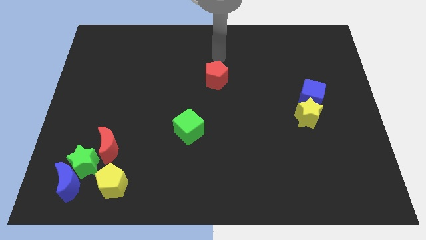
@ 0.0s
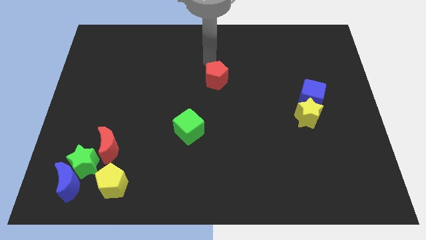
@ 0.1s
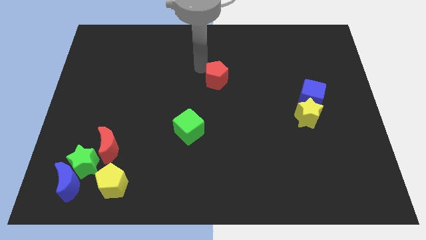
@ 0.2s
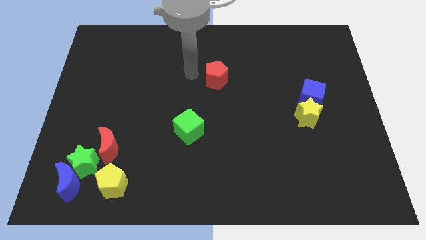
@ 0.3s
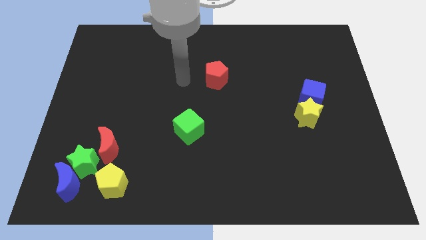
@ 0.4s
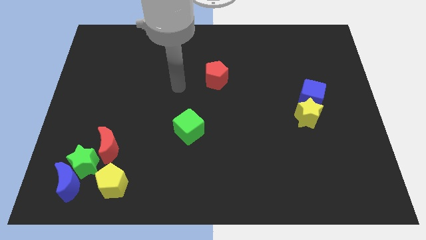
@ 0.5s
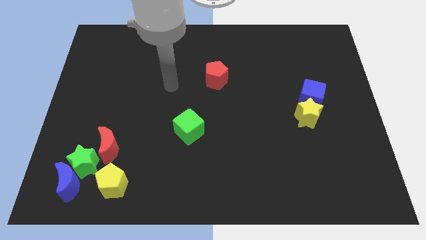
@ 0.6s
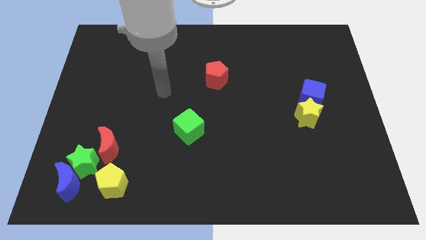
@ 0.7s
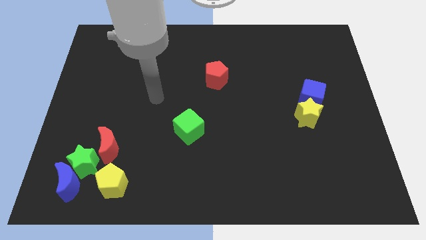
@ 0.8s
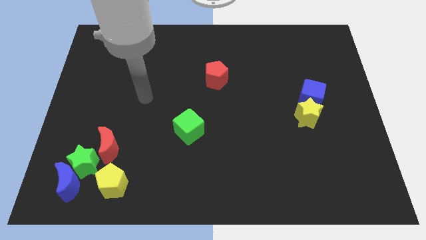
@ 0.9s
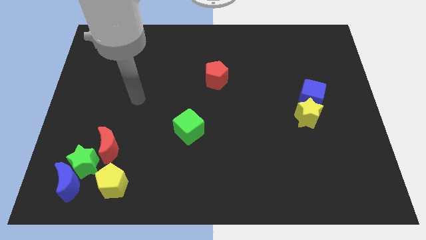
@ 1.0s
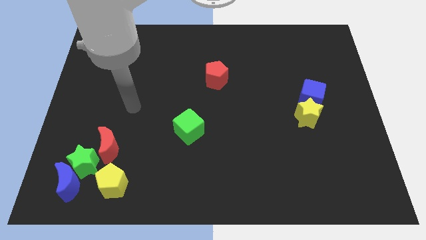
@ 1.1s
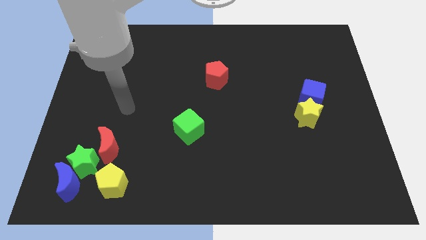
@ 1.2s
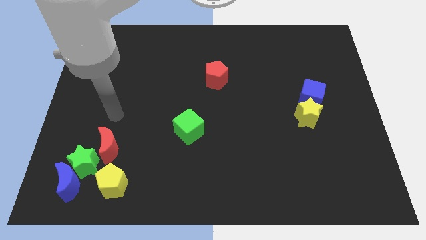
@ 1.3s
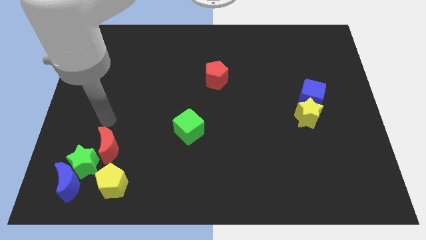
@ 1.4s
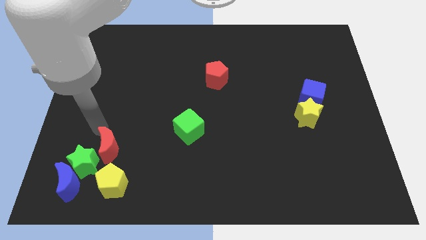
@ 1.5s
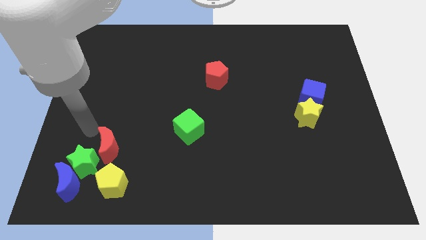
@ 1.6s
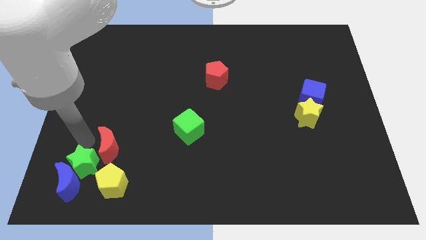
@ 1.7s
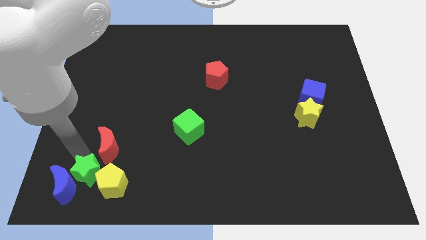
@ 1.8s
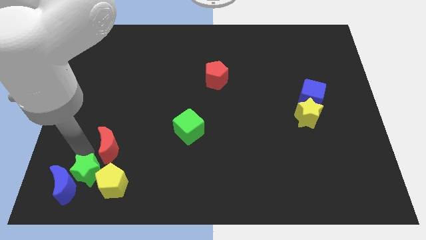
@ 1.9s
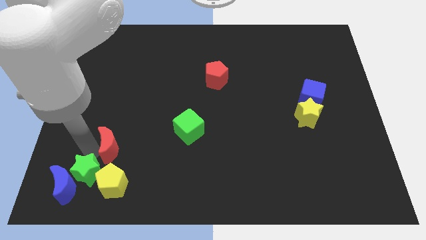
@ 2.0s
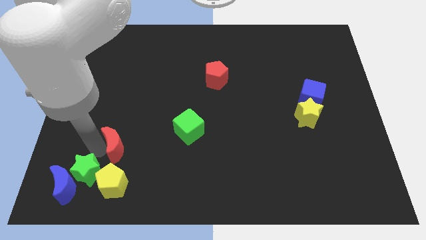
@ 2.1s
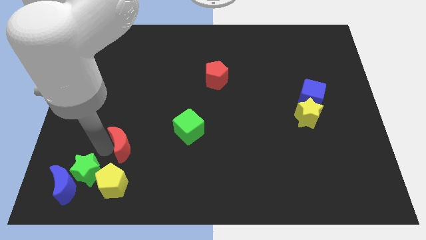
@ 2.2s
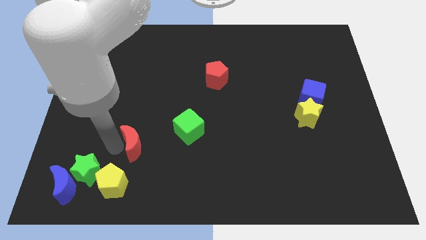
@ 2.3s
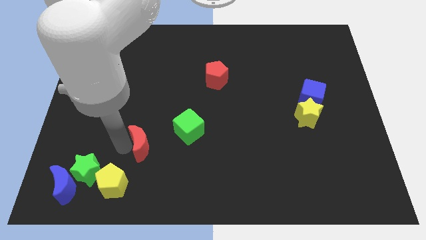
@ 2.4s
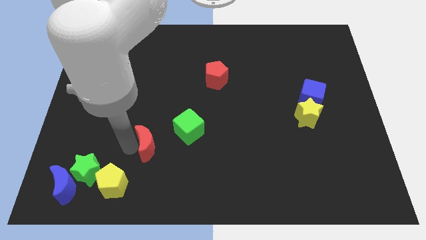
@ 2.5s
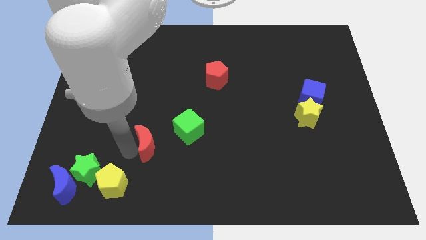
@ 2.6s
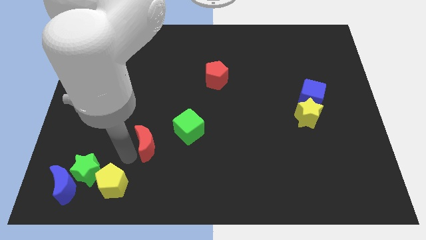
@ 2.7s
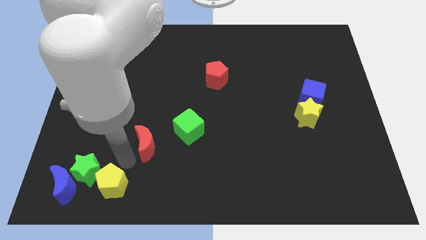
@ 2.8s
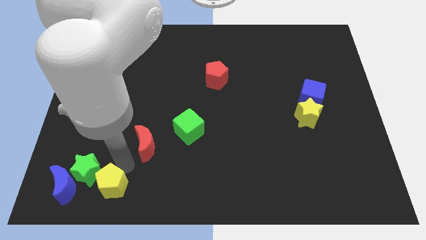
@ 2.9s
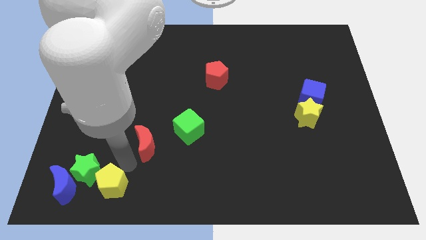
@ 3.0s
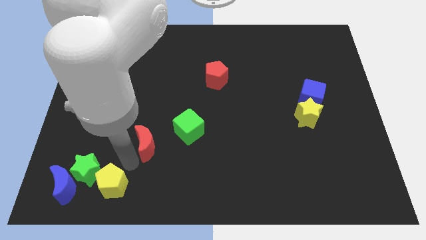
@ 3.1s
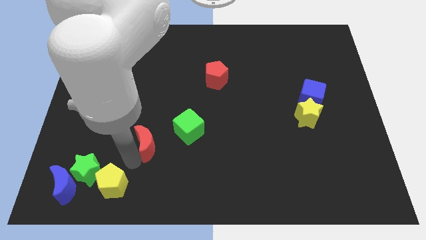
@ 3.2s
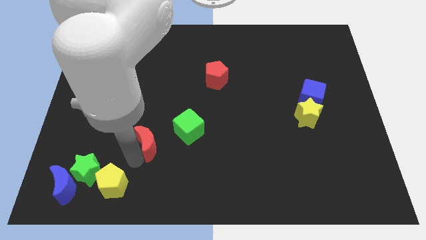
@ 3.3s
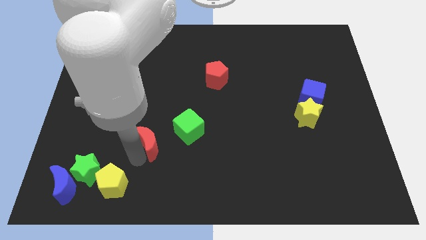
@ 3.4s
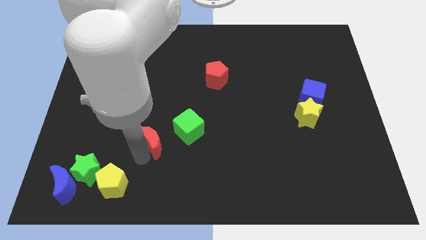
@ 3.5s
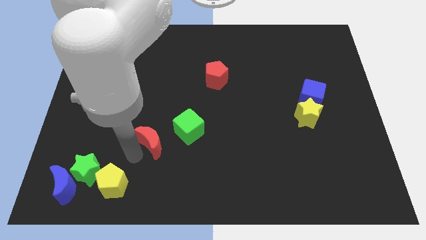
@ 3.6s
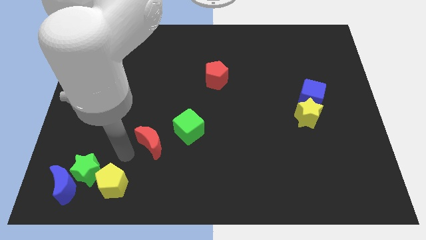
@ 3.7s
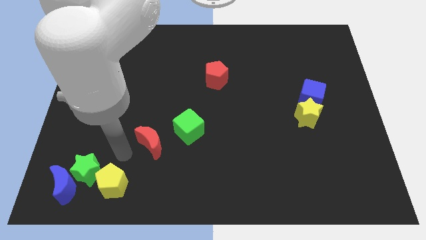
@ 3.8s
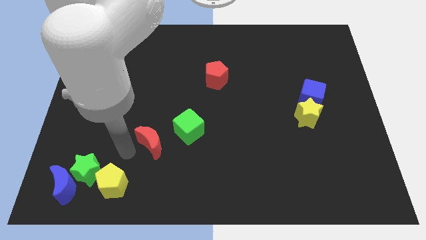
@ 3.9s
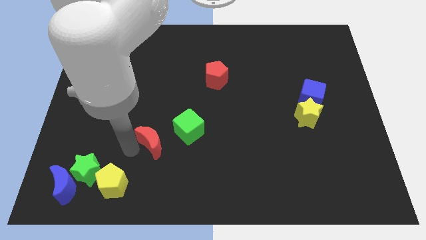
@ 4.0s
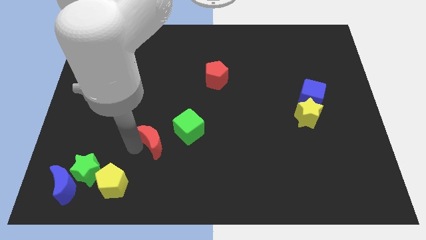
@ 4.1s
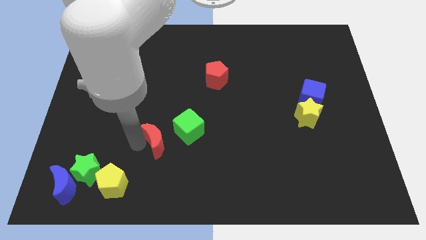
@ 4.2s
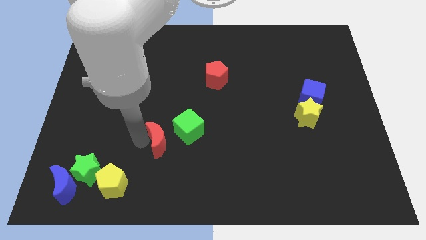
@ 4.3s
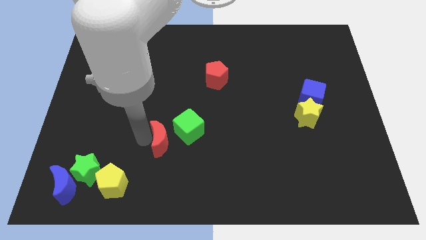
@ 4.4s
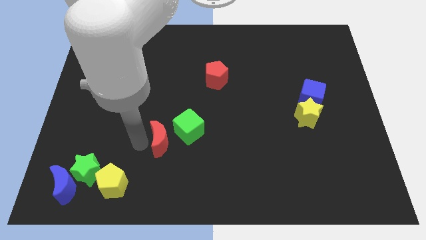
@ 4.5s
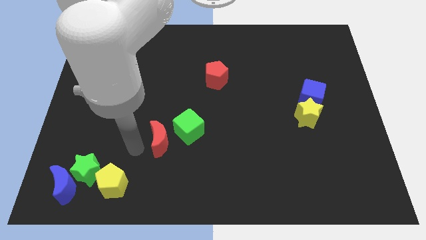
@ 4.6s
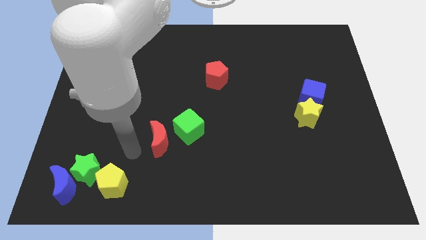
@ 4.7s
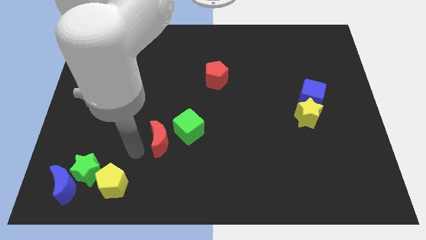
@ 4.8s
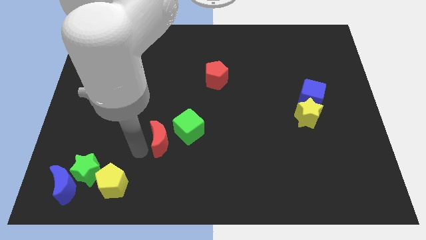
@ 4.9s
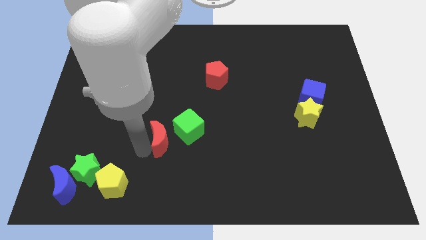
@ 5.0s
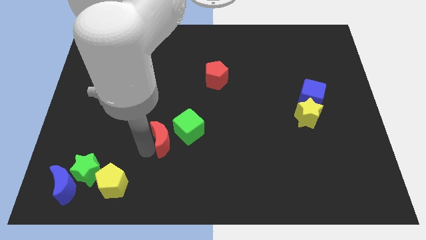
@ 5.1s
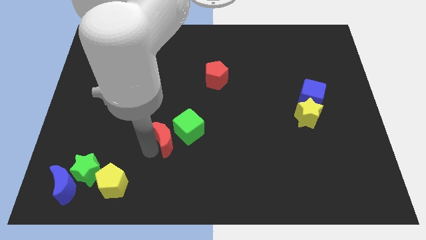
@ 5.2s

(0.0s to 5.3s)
move the red moon to the green cube

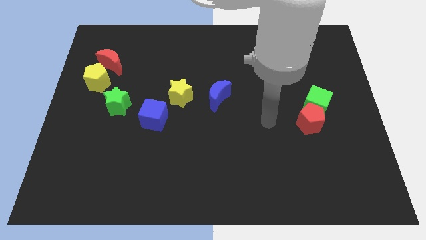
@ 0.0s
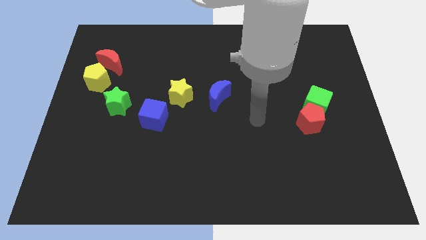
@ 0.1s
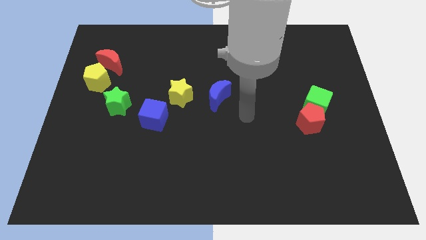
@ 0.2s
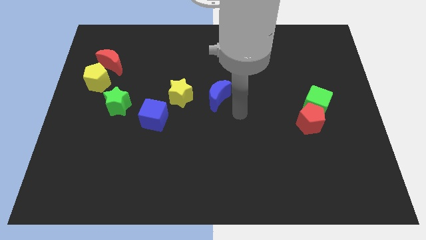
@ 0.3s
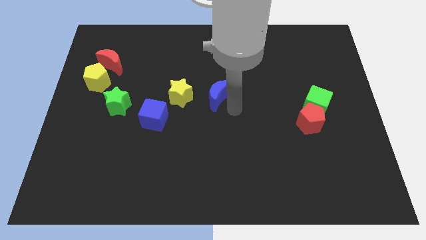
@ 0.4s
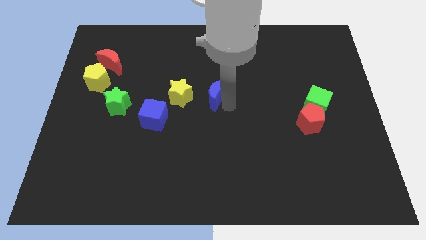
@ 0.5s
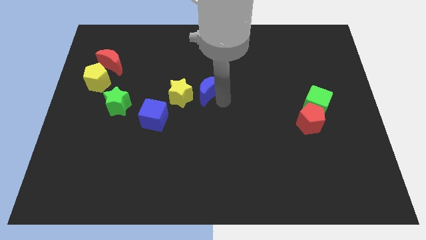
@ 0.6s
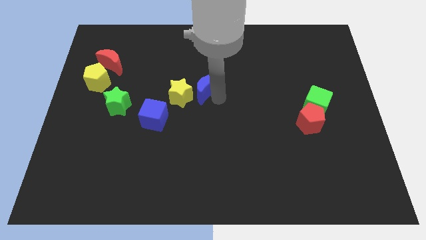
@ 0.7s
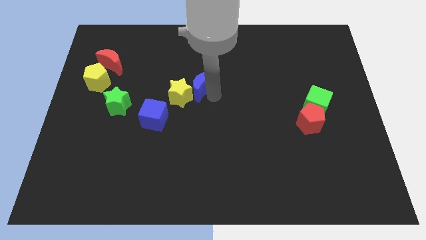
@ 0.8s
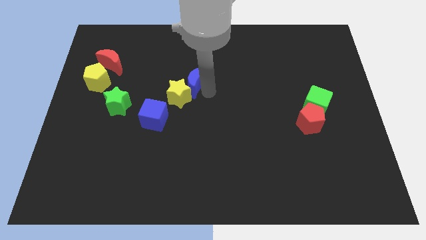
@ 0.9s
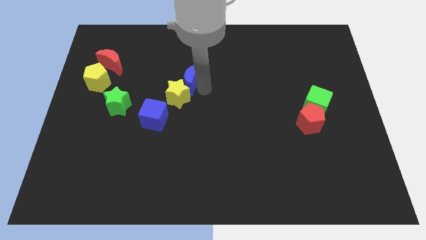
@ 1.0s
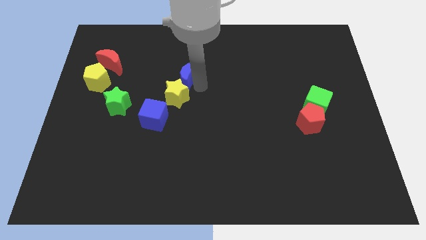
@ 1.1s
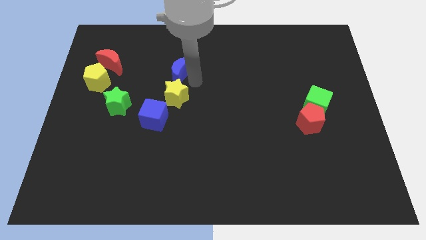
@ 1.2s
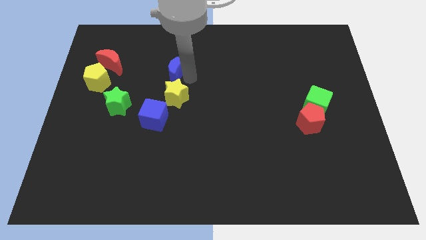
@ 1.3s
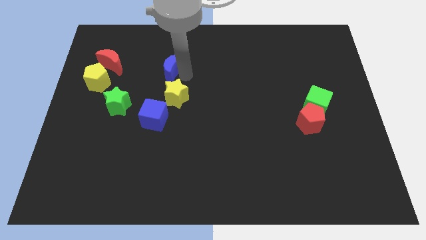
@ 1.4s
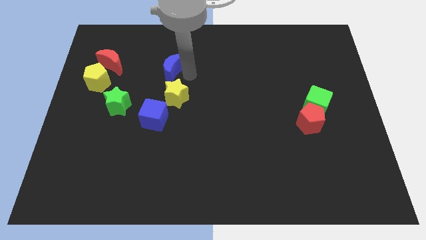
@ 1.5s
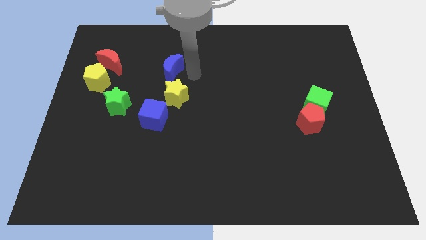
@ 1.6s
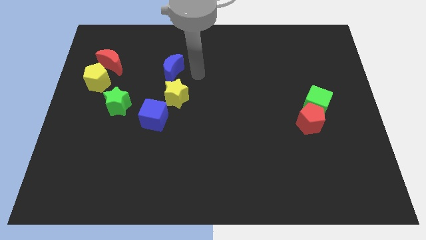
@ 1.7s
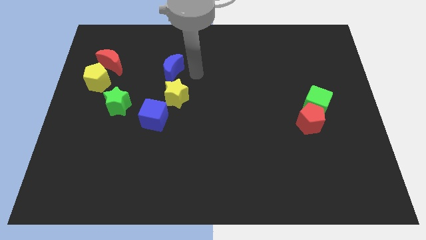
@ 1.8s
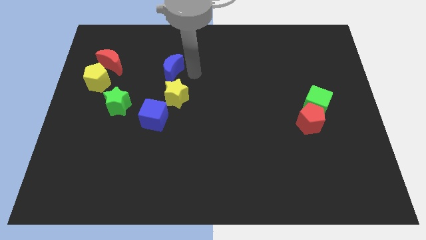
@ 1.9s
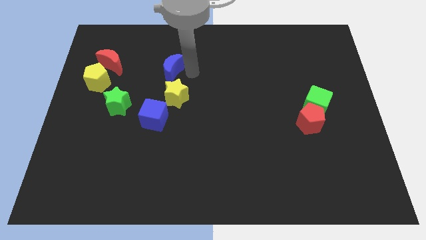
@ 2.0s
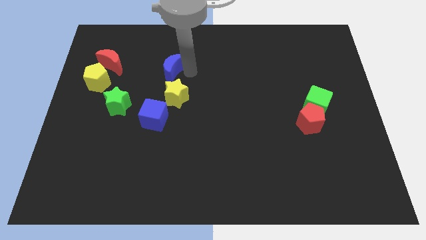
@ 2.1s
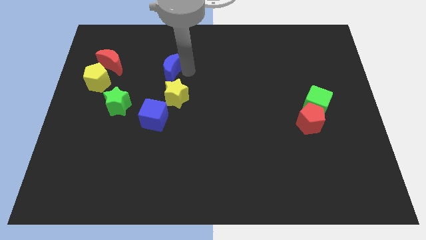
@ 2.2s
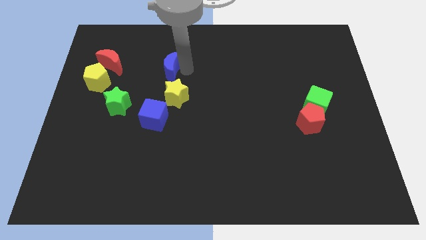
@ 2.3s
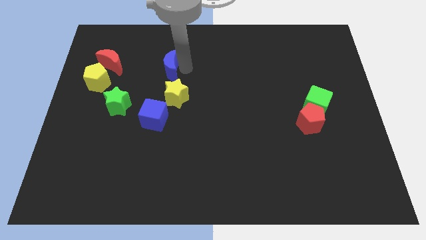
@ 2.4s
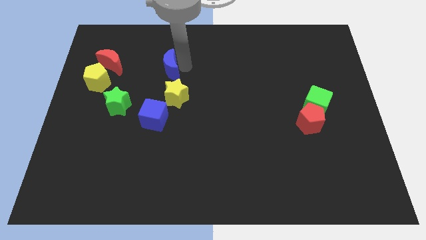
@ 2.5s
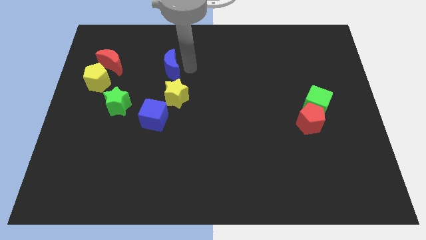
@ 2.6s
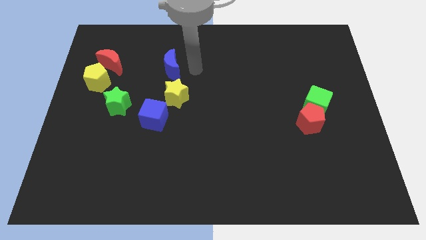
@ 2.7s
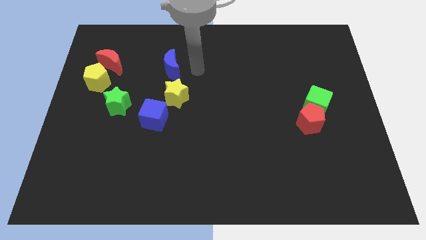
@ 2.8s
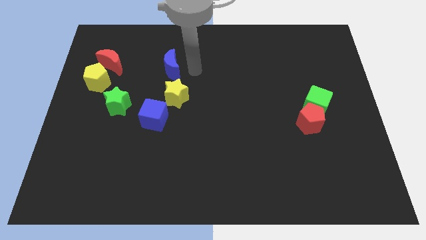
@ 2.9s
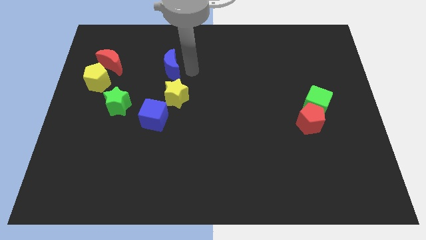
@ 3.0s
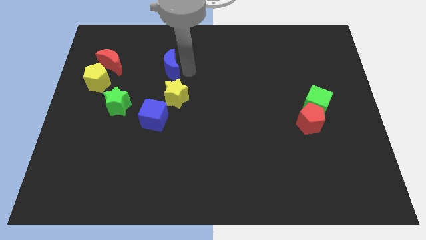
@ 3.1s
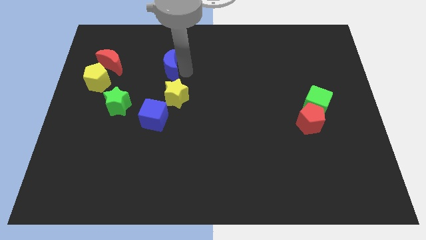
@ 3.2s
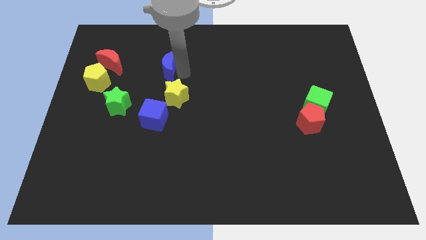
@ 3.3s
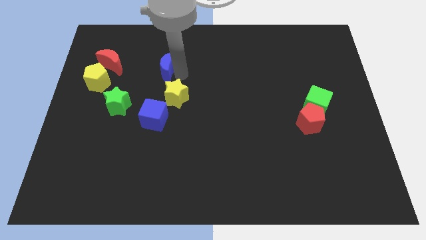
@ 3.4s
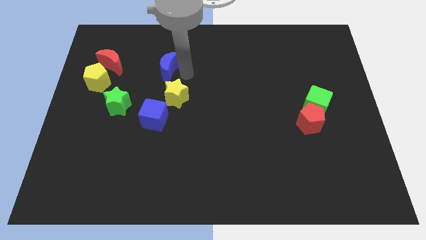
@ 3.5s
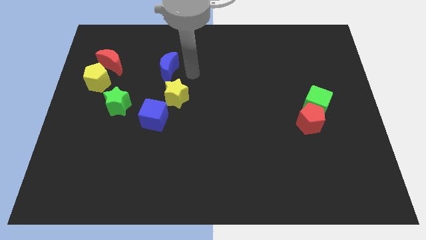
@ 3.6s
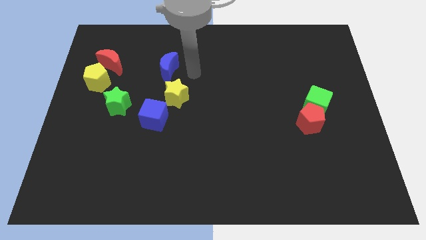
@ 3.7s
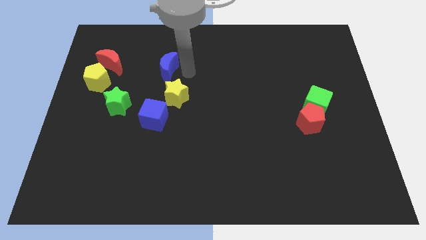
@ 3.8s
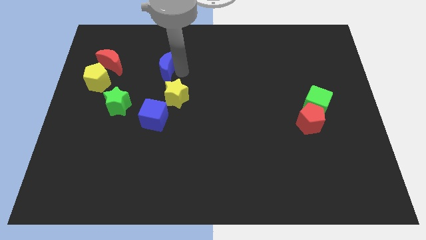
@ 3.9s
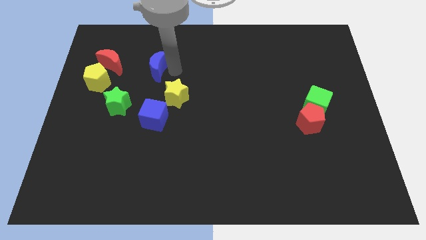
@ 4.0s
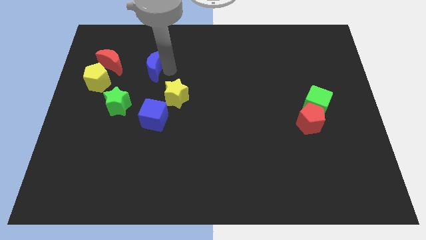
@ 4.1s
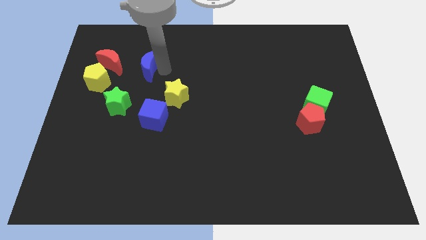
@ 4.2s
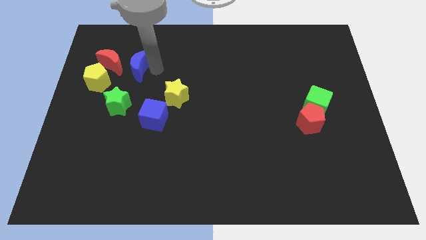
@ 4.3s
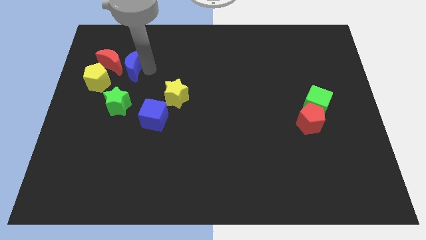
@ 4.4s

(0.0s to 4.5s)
move the blue moon to the red moon
